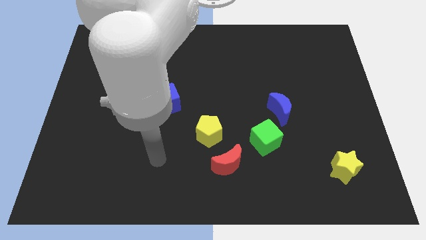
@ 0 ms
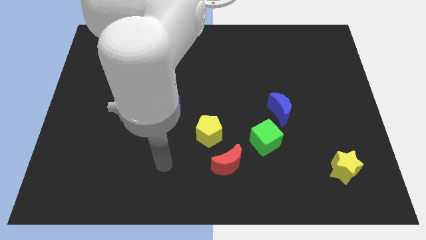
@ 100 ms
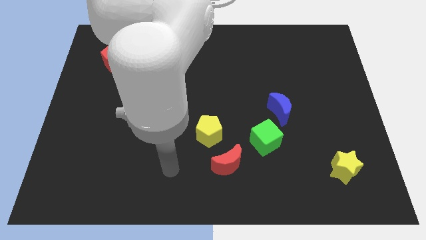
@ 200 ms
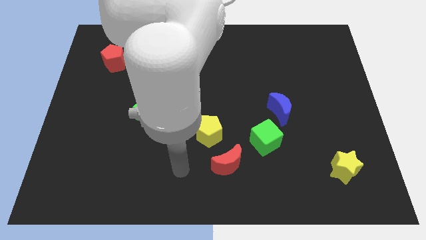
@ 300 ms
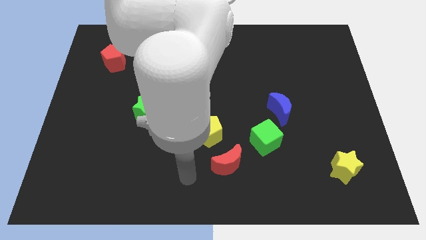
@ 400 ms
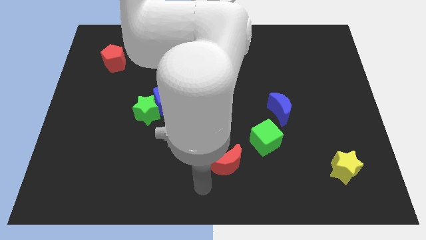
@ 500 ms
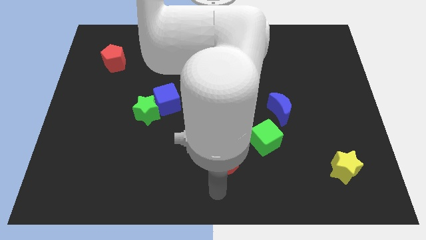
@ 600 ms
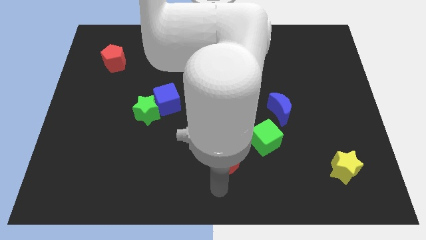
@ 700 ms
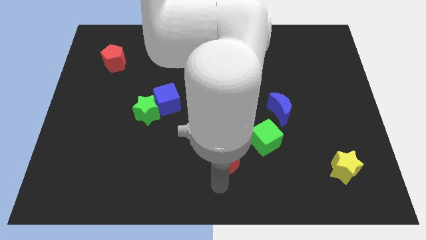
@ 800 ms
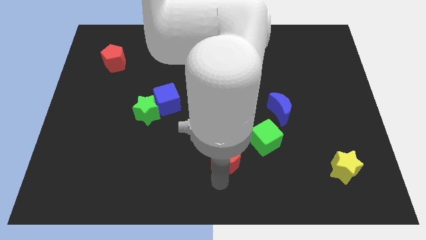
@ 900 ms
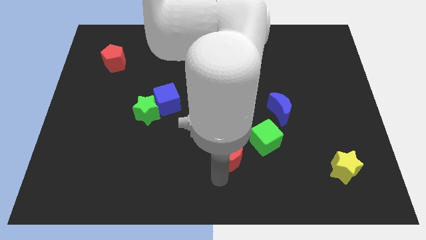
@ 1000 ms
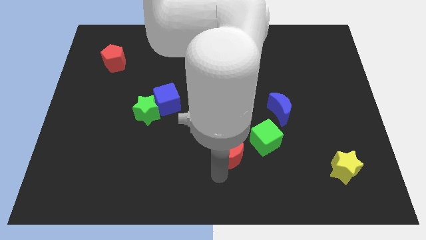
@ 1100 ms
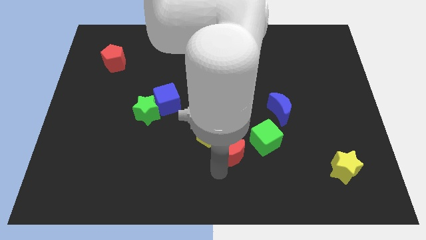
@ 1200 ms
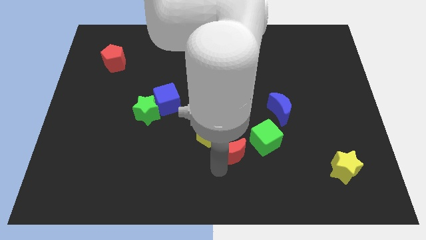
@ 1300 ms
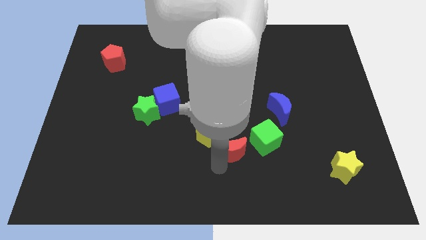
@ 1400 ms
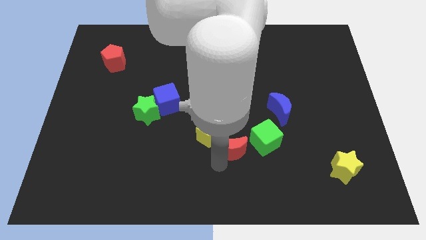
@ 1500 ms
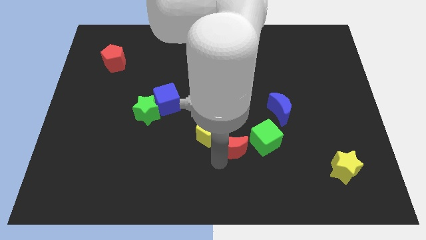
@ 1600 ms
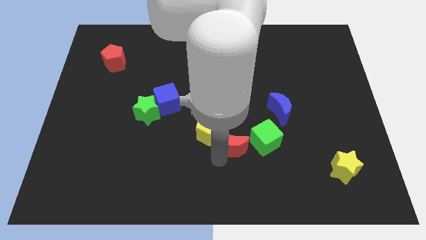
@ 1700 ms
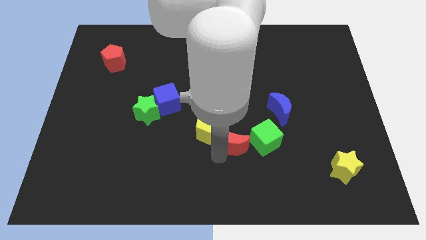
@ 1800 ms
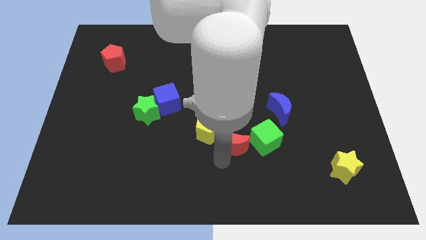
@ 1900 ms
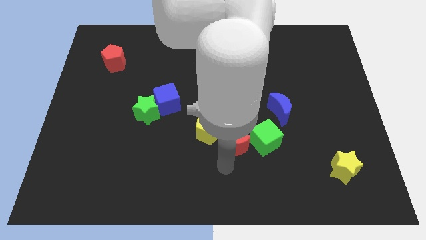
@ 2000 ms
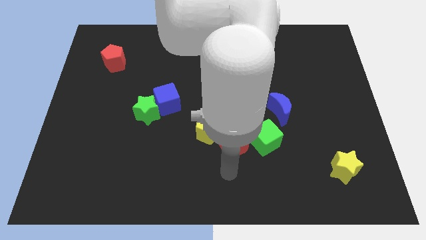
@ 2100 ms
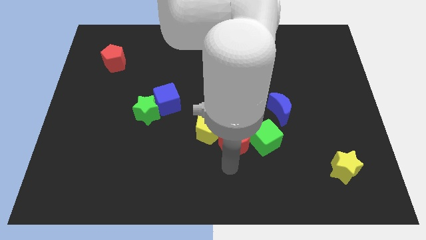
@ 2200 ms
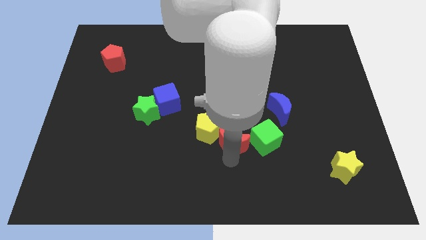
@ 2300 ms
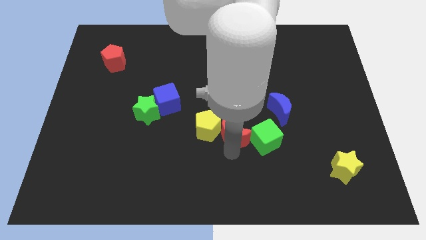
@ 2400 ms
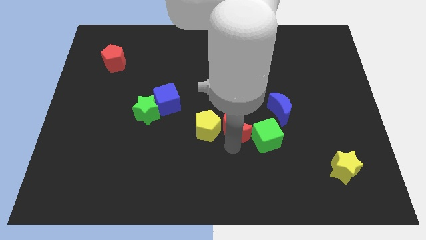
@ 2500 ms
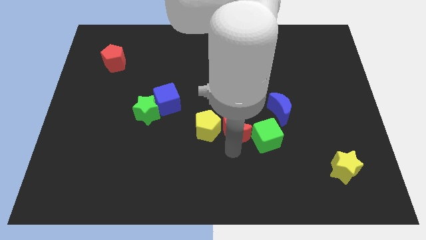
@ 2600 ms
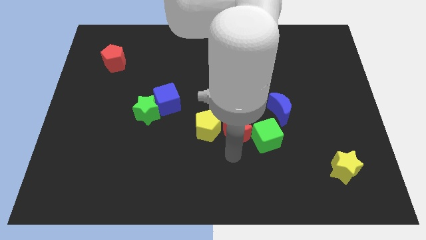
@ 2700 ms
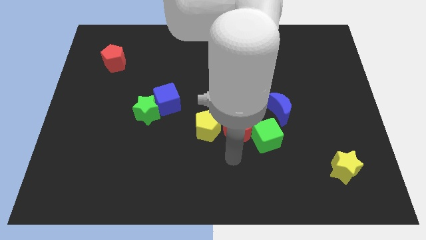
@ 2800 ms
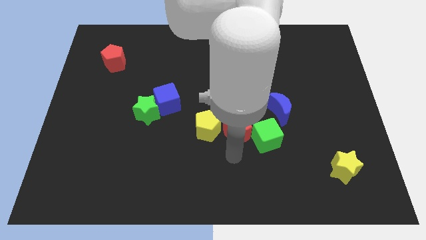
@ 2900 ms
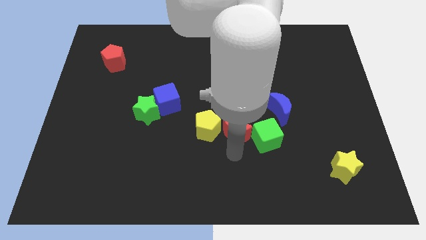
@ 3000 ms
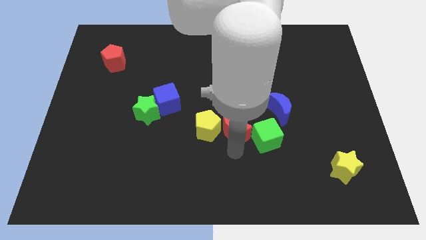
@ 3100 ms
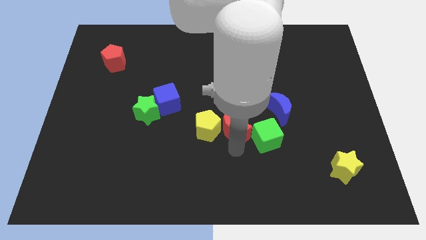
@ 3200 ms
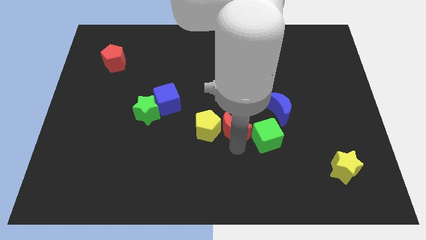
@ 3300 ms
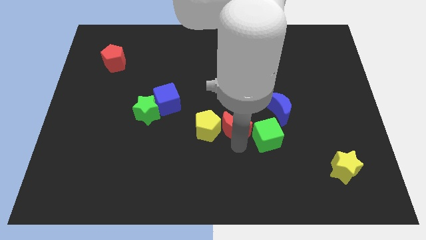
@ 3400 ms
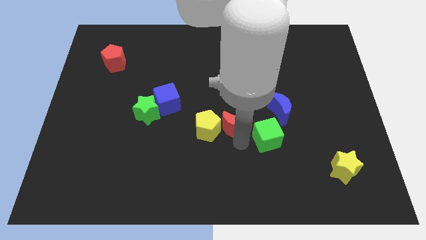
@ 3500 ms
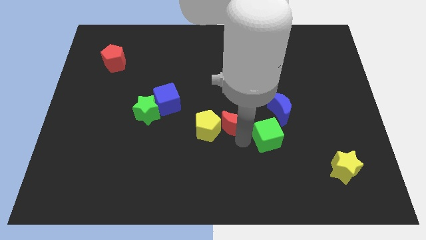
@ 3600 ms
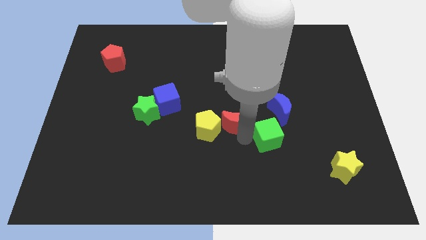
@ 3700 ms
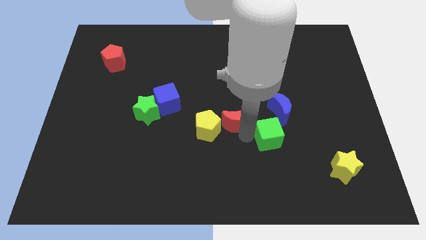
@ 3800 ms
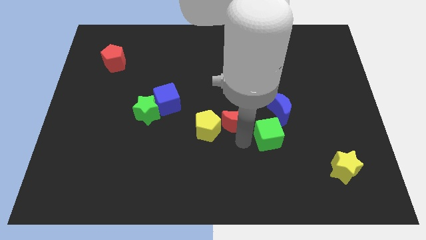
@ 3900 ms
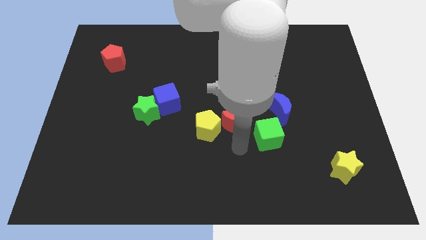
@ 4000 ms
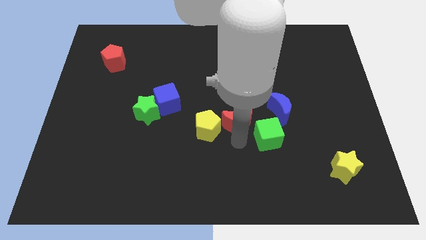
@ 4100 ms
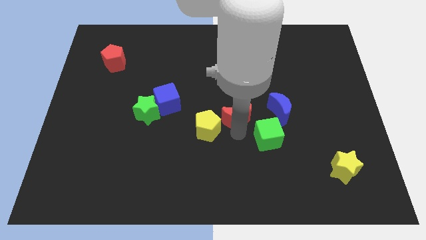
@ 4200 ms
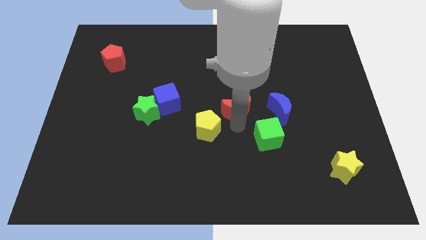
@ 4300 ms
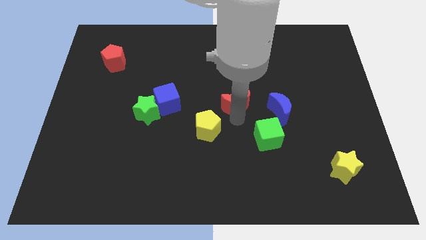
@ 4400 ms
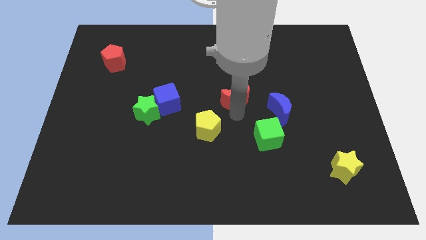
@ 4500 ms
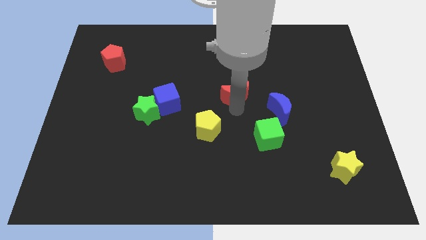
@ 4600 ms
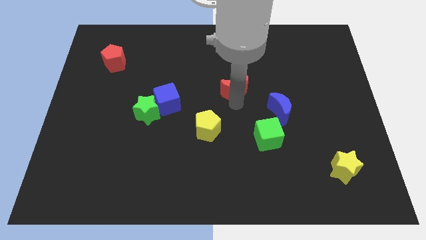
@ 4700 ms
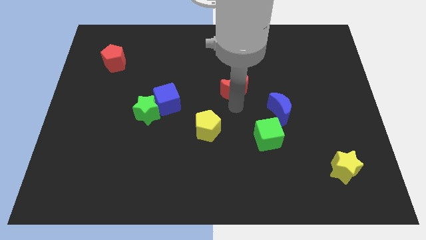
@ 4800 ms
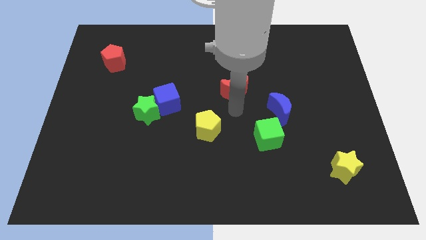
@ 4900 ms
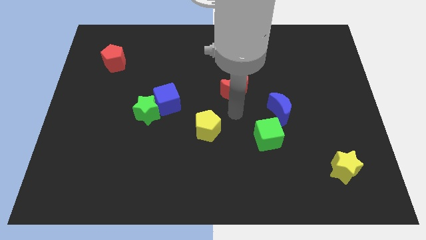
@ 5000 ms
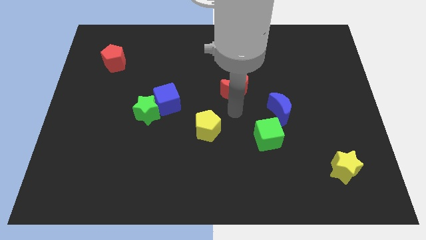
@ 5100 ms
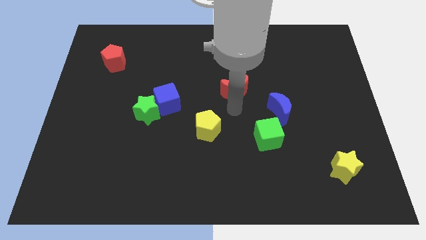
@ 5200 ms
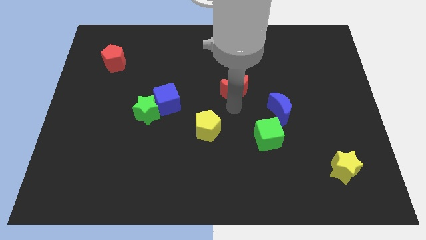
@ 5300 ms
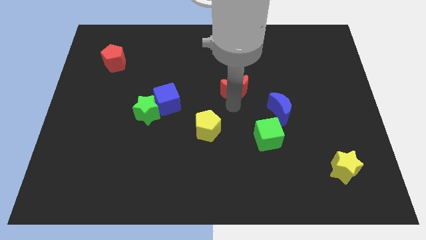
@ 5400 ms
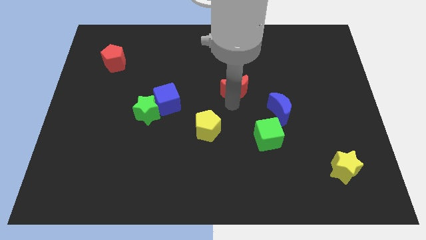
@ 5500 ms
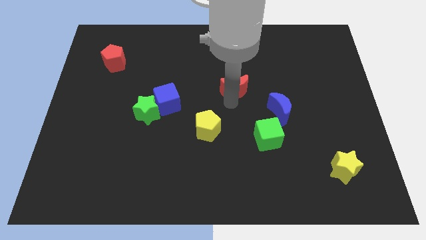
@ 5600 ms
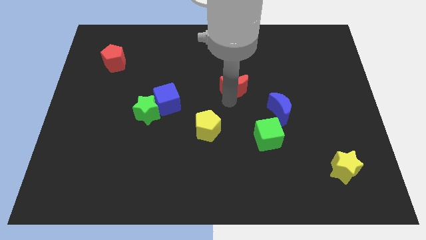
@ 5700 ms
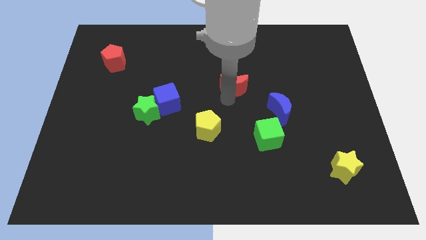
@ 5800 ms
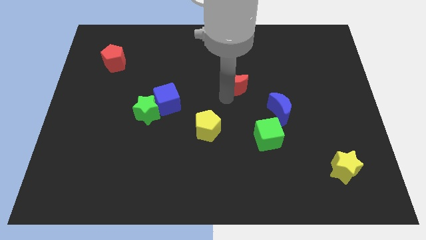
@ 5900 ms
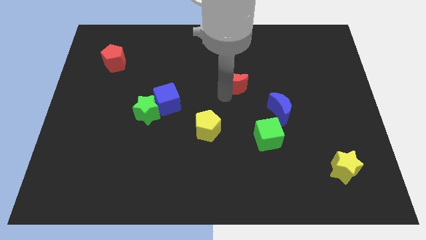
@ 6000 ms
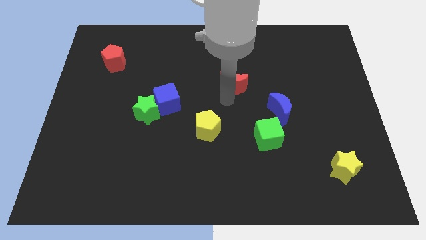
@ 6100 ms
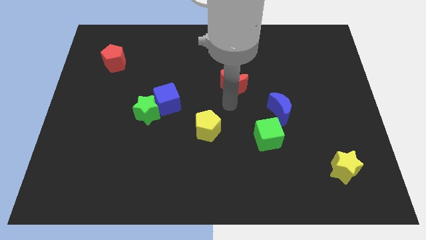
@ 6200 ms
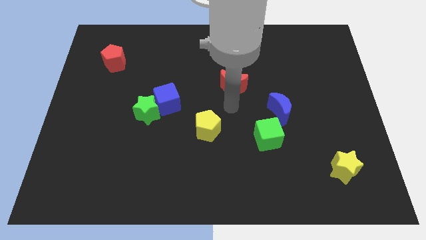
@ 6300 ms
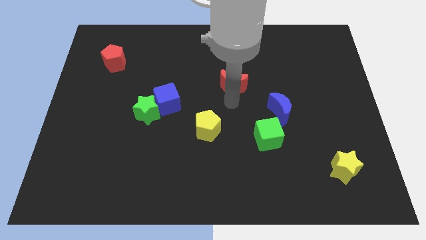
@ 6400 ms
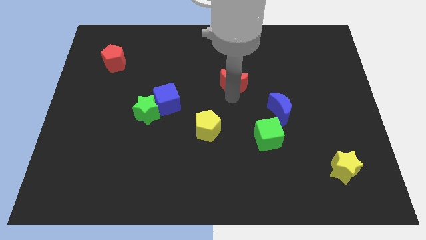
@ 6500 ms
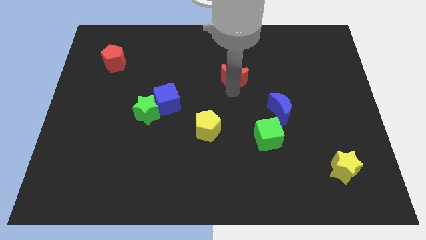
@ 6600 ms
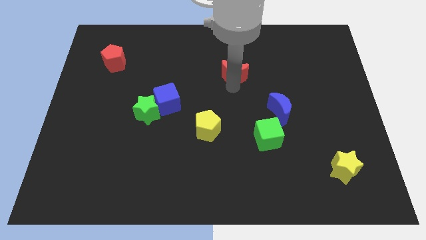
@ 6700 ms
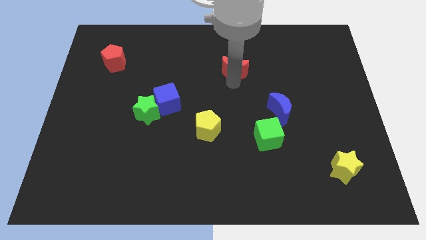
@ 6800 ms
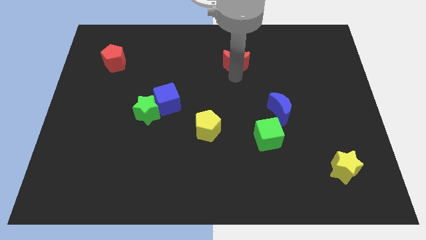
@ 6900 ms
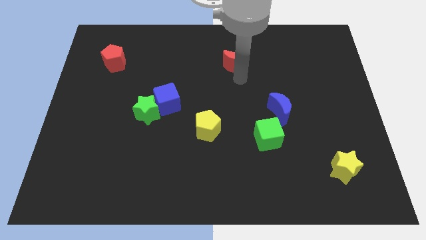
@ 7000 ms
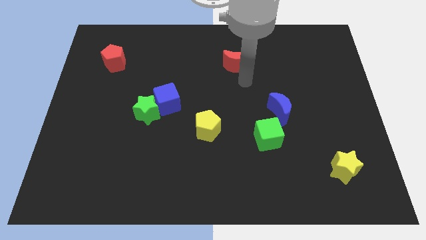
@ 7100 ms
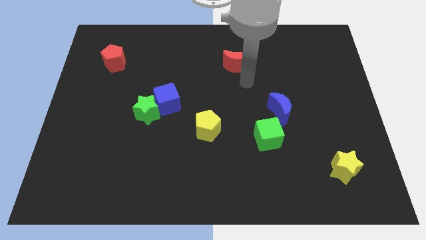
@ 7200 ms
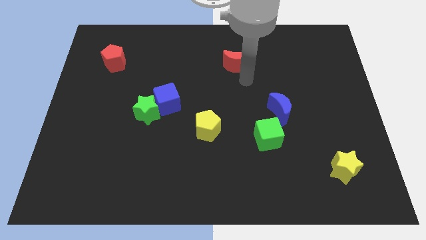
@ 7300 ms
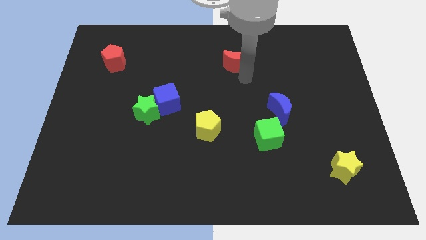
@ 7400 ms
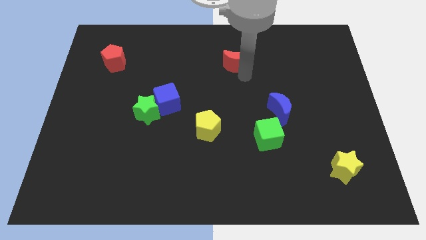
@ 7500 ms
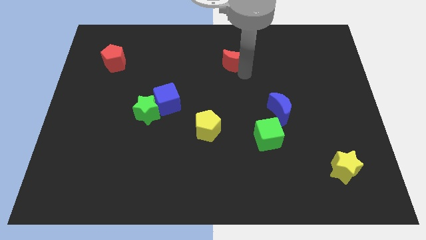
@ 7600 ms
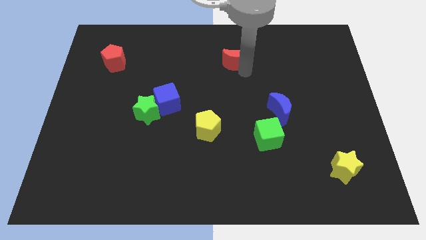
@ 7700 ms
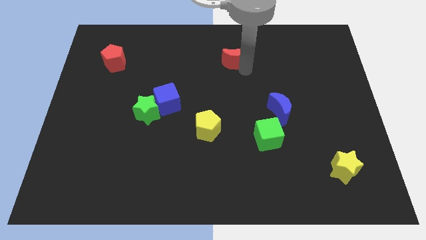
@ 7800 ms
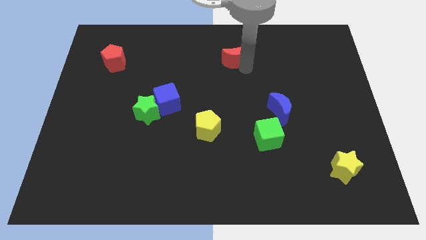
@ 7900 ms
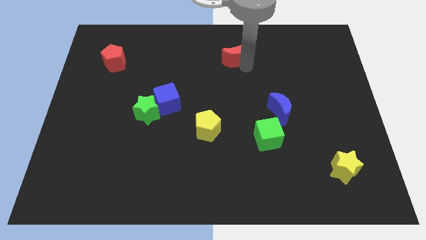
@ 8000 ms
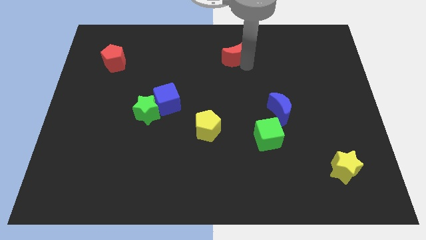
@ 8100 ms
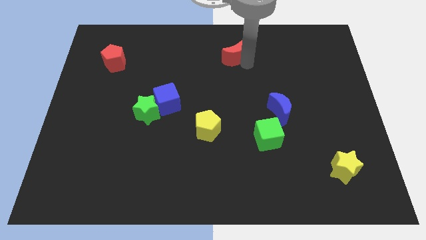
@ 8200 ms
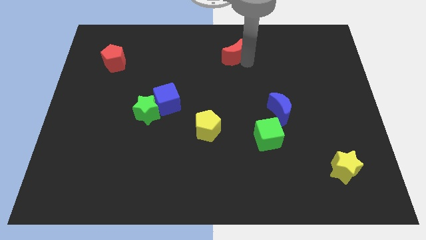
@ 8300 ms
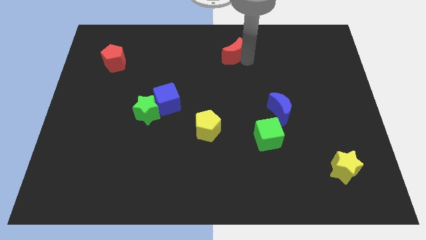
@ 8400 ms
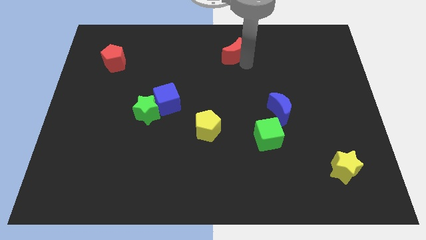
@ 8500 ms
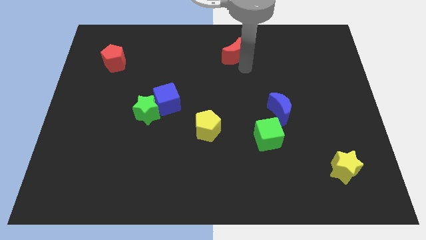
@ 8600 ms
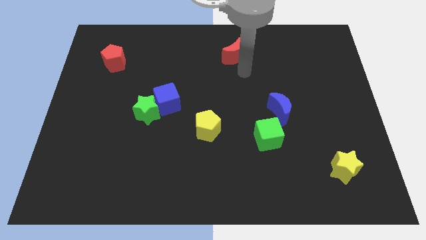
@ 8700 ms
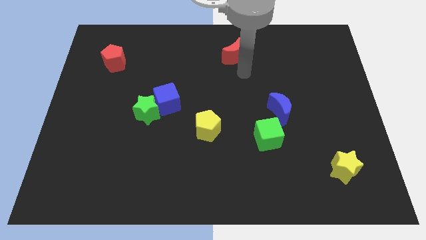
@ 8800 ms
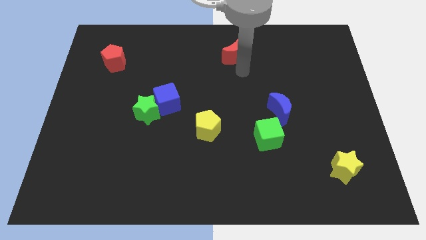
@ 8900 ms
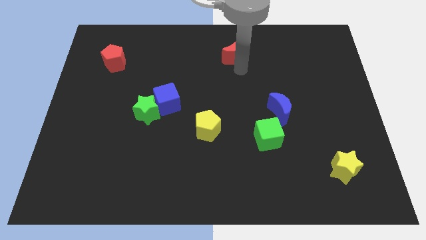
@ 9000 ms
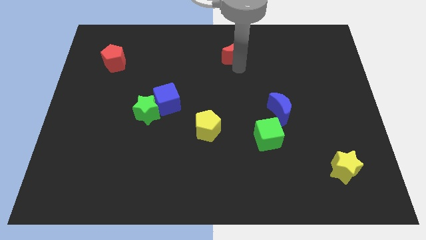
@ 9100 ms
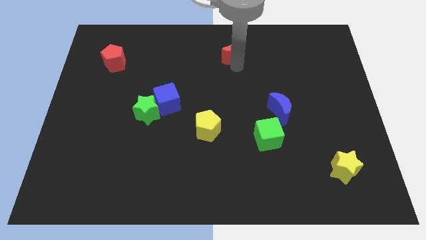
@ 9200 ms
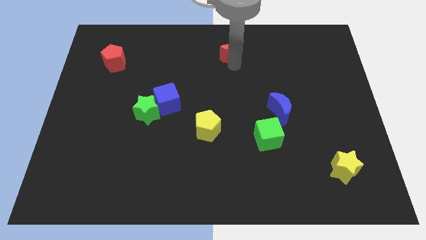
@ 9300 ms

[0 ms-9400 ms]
push the red moon to the top side
